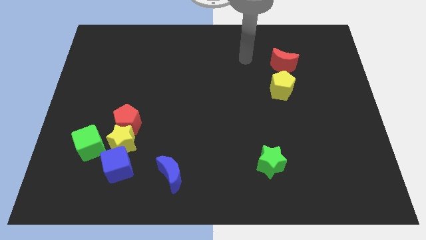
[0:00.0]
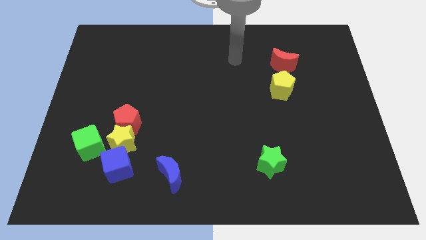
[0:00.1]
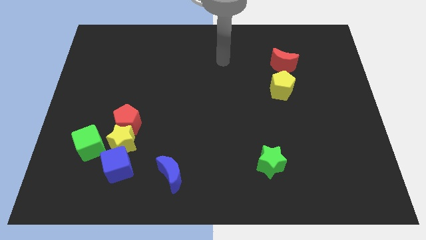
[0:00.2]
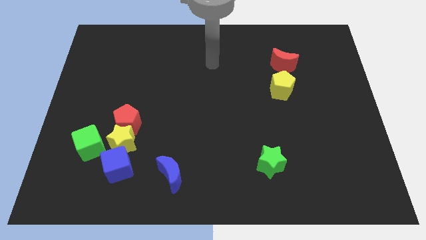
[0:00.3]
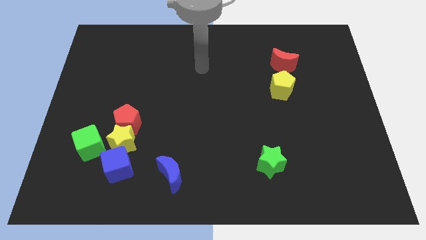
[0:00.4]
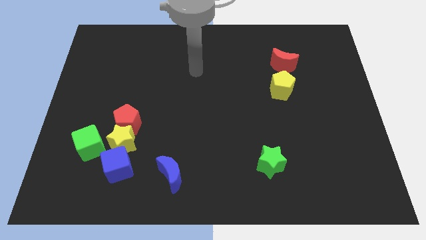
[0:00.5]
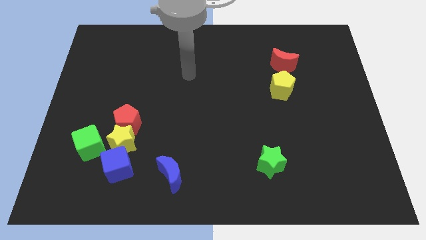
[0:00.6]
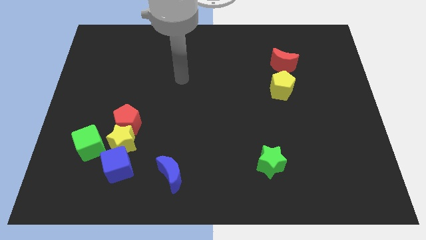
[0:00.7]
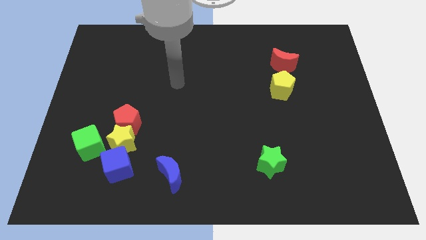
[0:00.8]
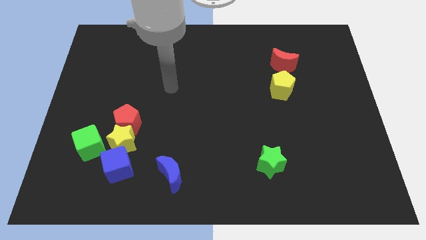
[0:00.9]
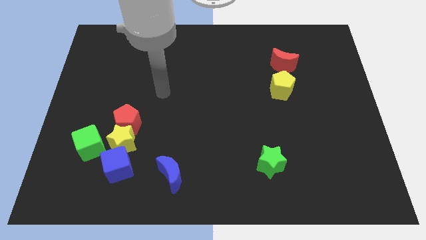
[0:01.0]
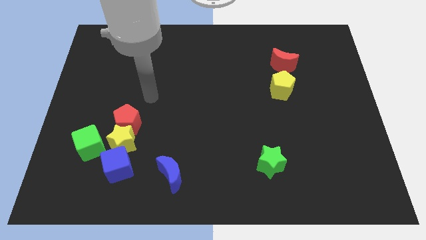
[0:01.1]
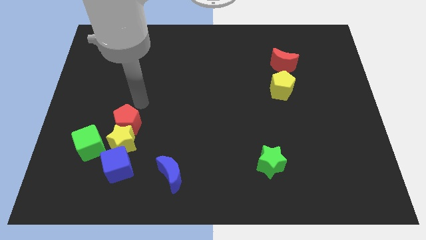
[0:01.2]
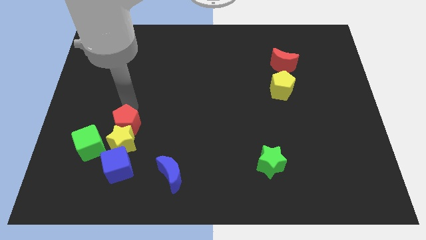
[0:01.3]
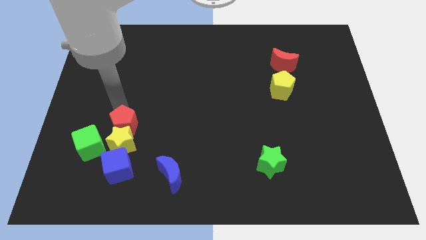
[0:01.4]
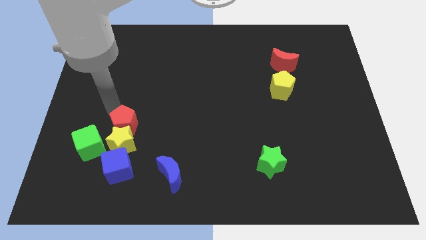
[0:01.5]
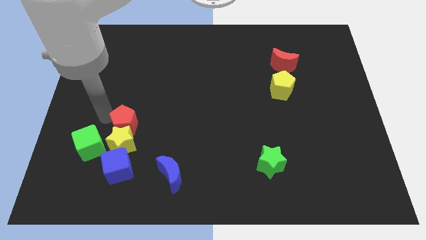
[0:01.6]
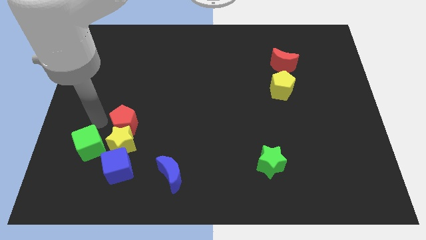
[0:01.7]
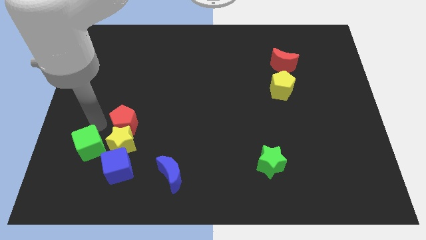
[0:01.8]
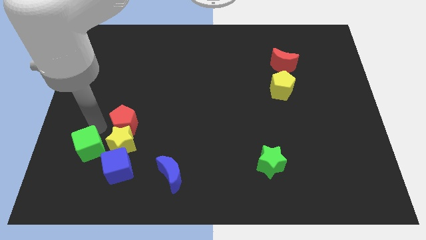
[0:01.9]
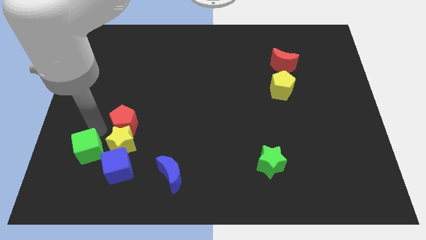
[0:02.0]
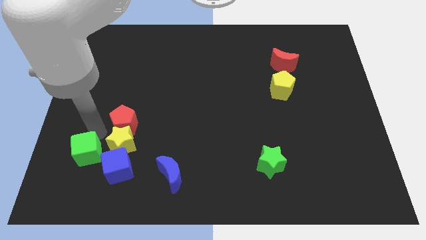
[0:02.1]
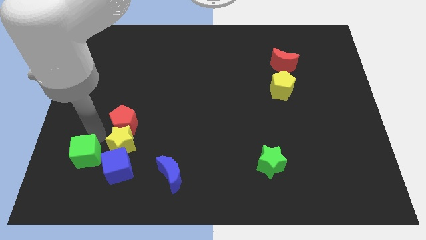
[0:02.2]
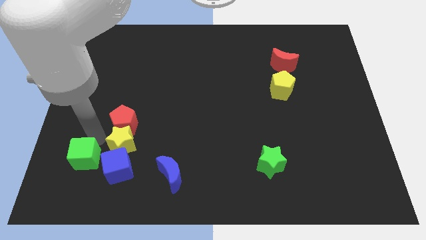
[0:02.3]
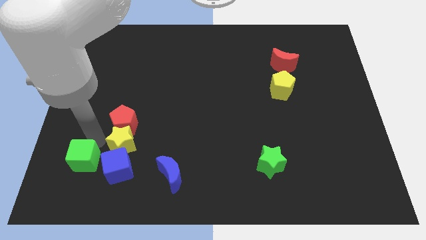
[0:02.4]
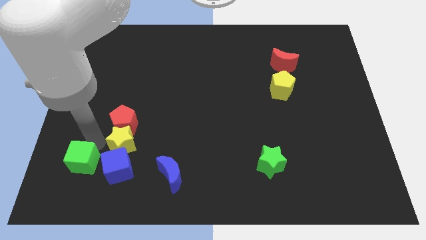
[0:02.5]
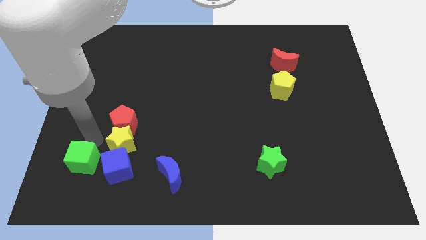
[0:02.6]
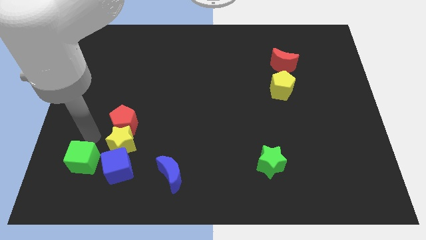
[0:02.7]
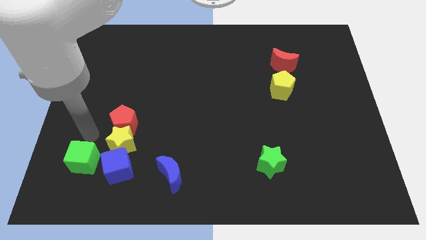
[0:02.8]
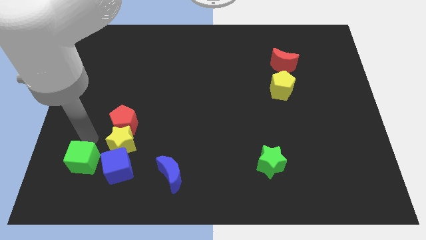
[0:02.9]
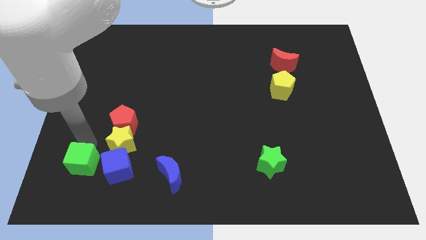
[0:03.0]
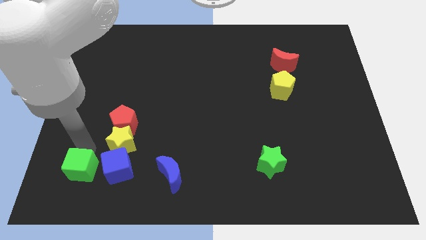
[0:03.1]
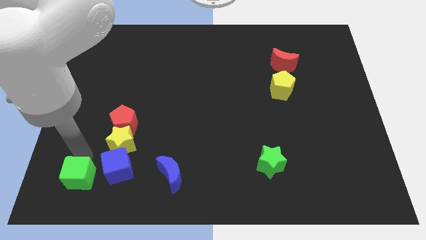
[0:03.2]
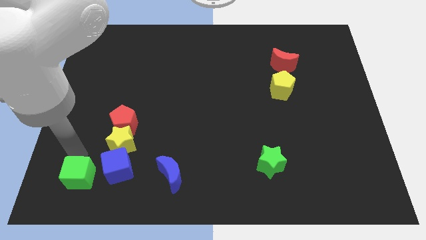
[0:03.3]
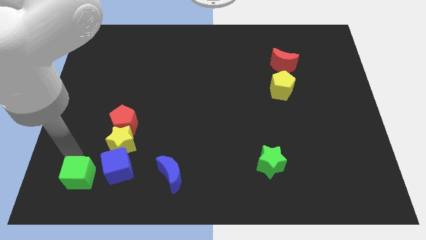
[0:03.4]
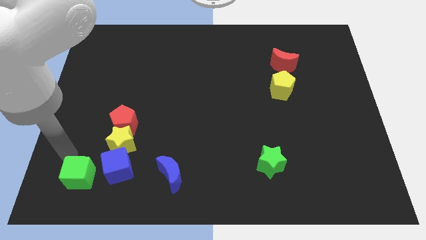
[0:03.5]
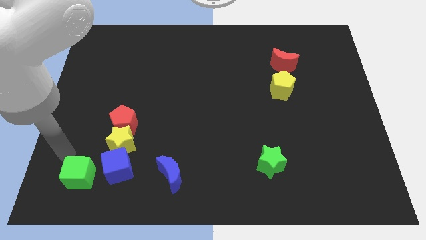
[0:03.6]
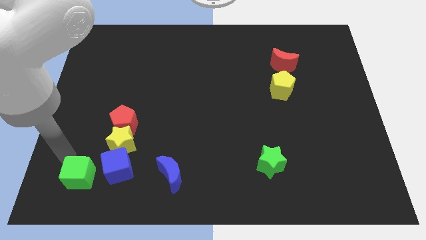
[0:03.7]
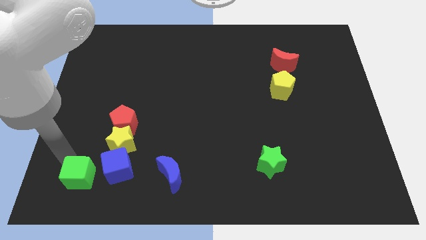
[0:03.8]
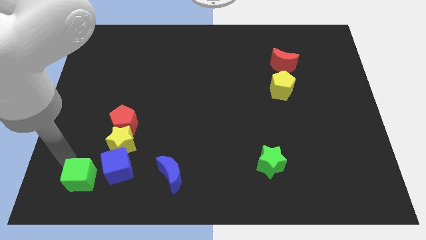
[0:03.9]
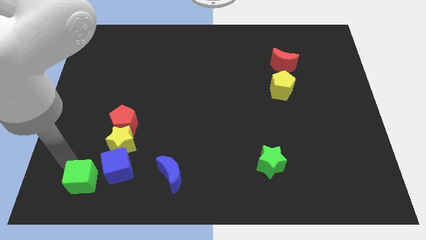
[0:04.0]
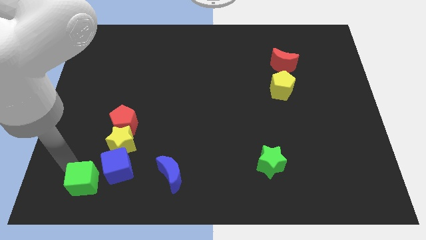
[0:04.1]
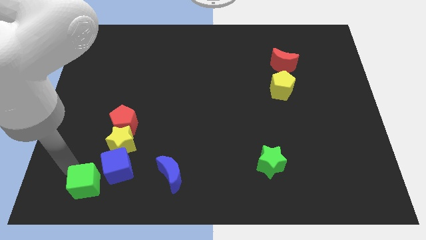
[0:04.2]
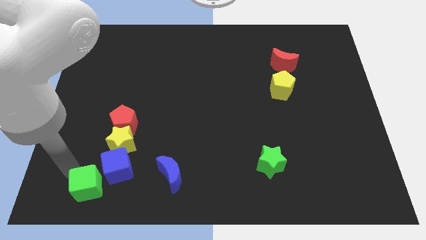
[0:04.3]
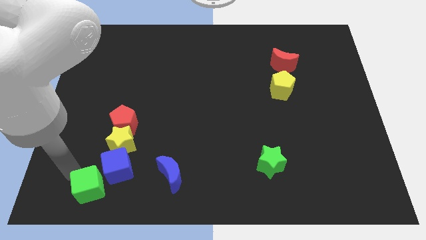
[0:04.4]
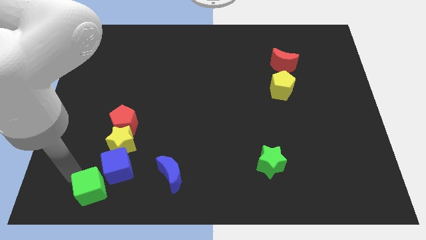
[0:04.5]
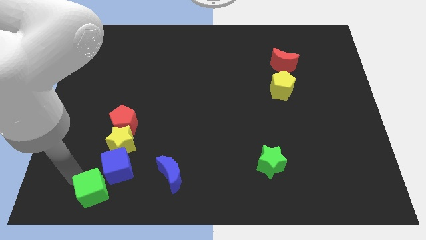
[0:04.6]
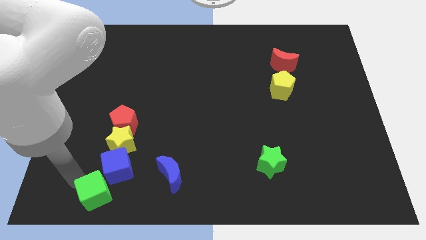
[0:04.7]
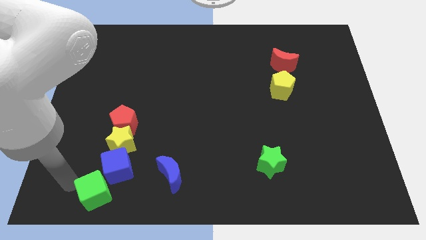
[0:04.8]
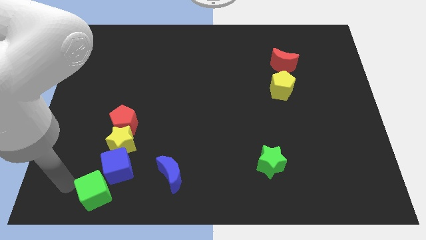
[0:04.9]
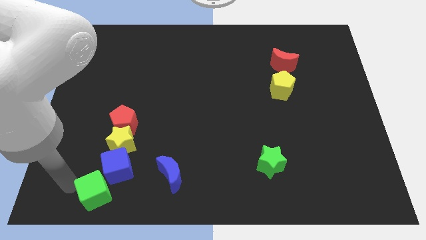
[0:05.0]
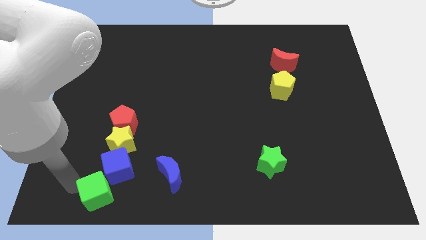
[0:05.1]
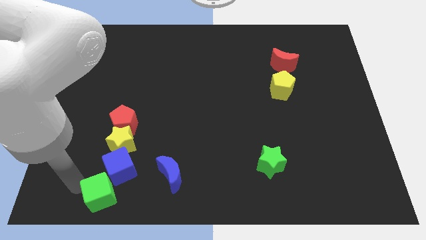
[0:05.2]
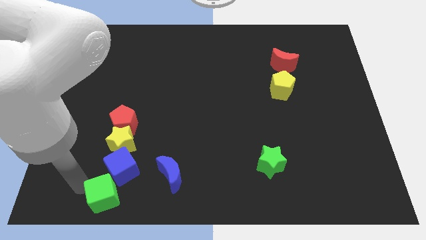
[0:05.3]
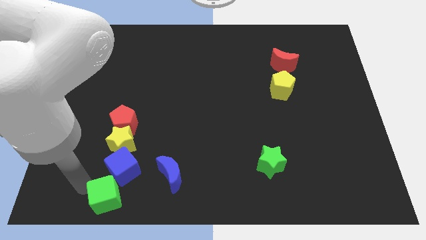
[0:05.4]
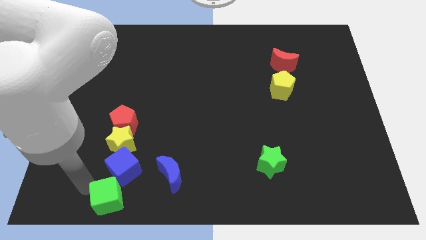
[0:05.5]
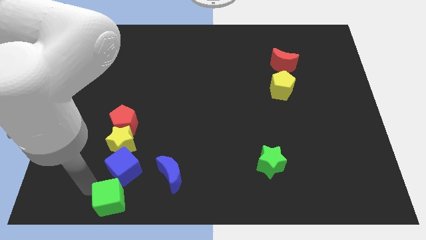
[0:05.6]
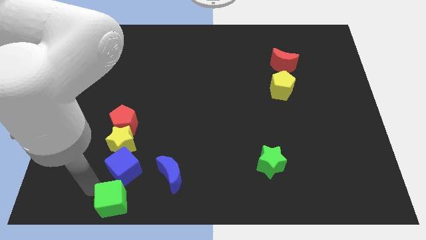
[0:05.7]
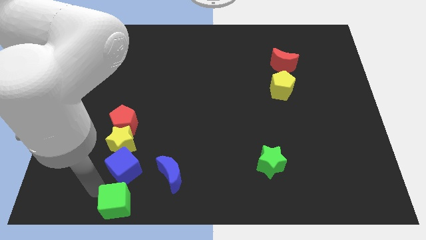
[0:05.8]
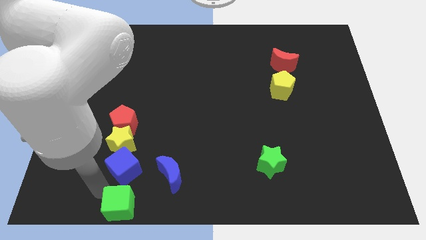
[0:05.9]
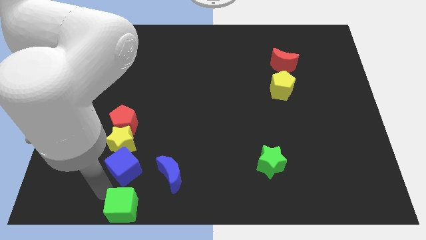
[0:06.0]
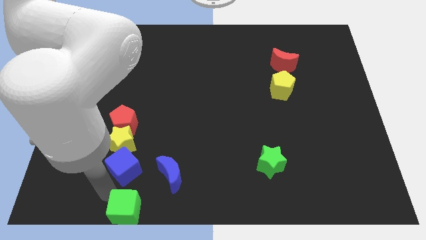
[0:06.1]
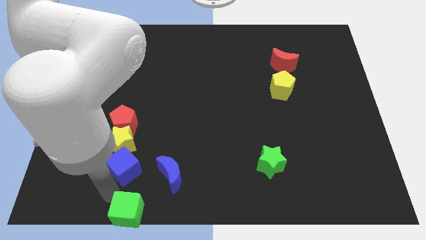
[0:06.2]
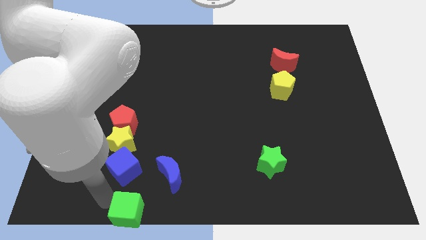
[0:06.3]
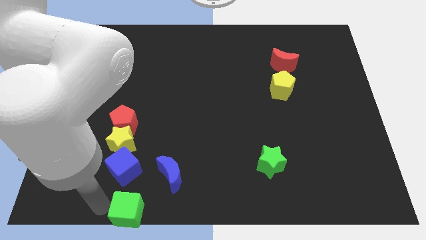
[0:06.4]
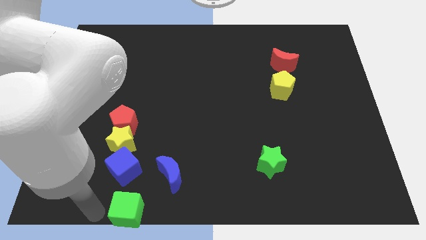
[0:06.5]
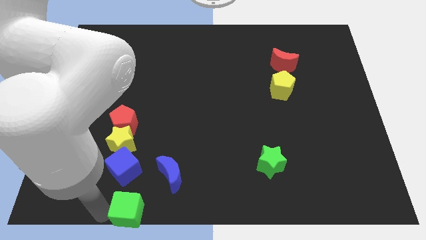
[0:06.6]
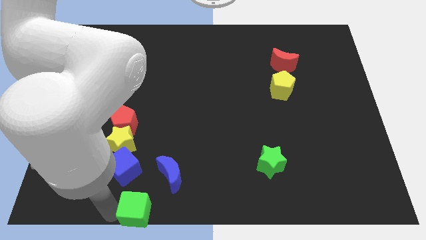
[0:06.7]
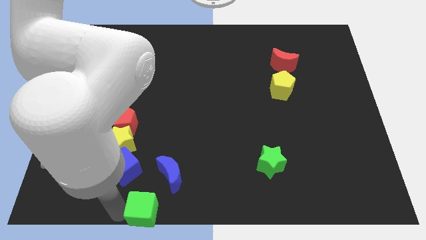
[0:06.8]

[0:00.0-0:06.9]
put the green cube to the bottom side

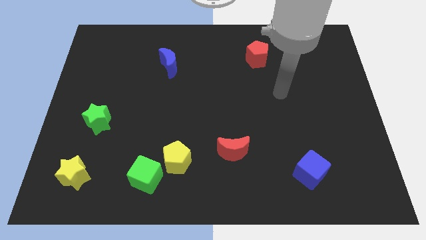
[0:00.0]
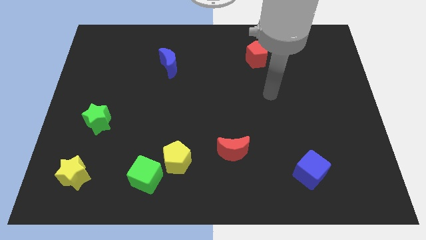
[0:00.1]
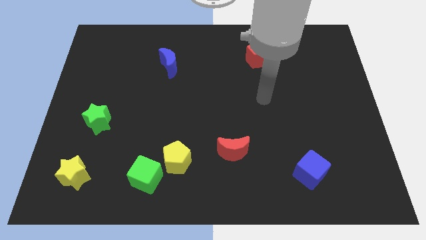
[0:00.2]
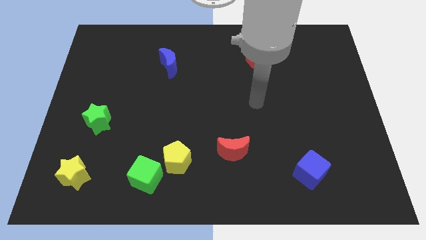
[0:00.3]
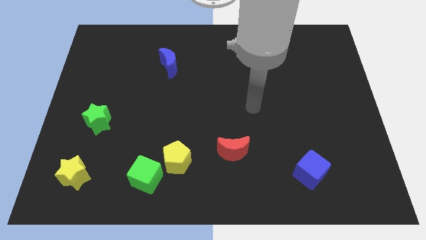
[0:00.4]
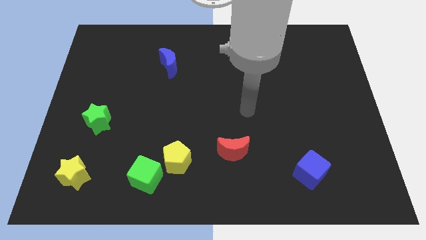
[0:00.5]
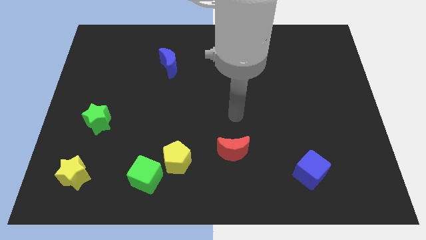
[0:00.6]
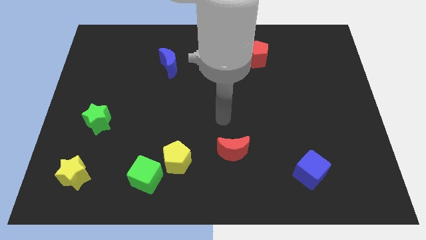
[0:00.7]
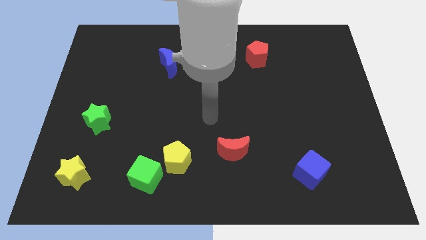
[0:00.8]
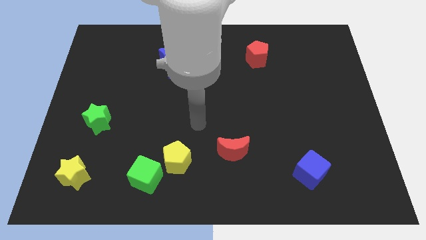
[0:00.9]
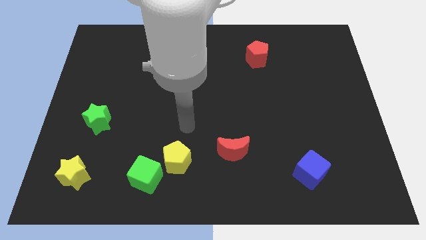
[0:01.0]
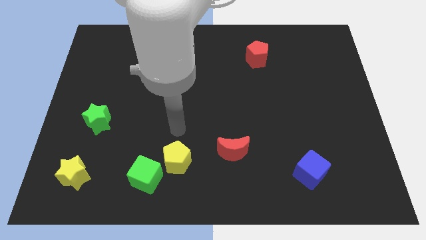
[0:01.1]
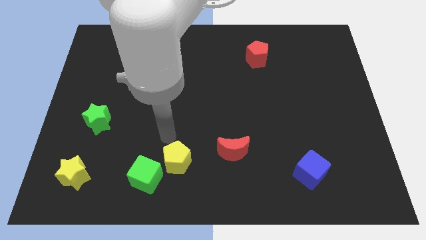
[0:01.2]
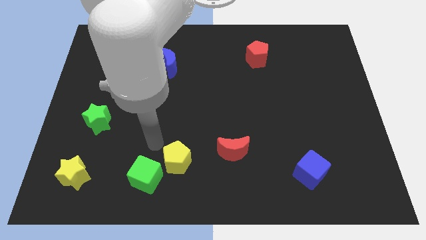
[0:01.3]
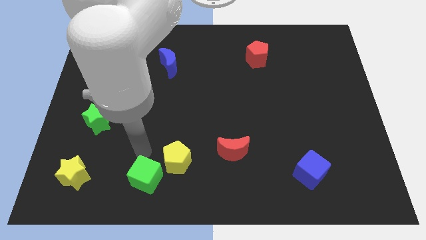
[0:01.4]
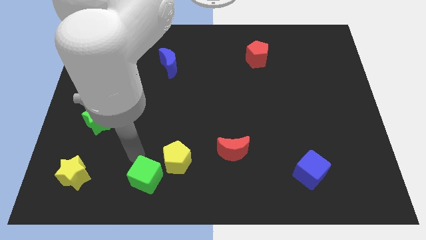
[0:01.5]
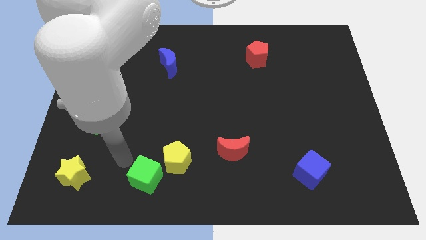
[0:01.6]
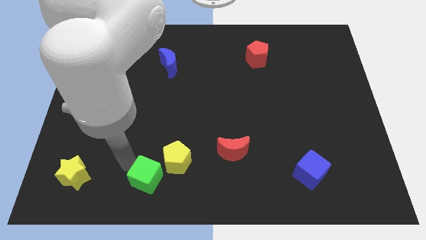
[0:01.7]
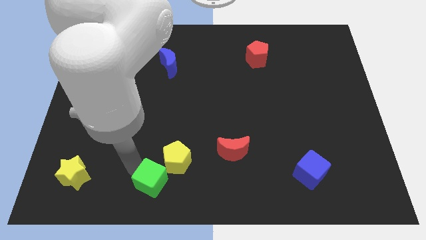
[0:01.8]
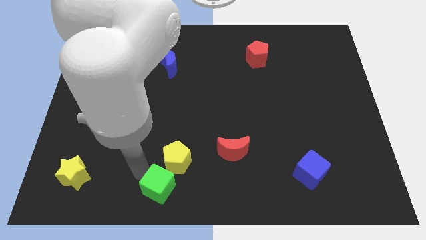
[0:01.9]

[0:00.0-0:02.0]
slide the green cube to the bottom side
